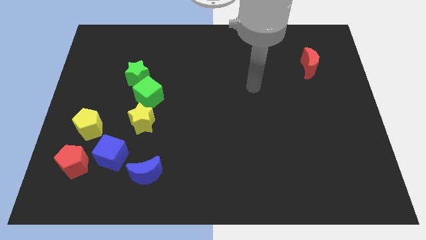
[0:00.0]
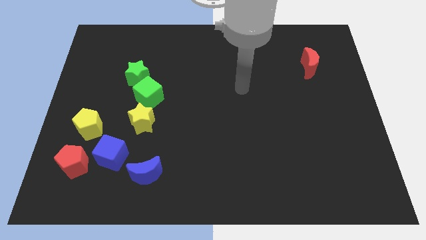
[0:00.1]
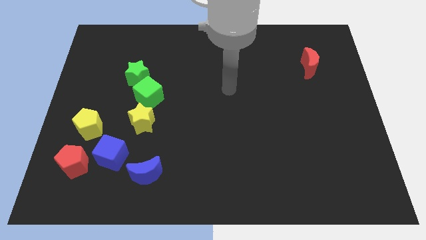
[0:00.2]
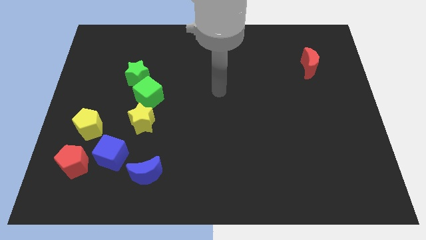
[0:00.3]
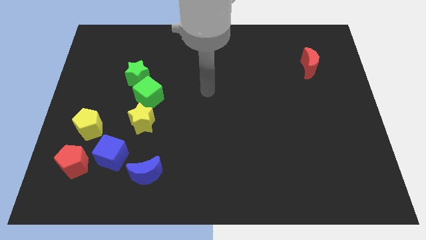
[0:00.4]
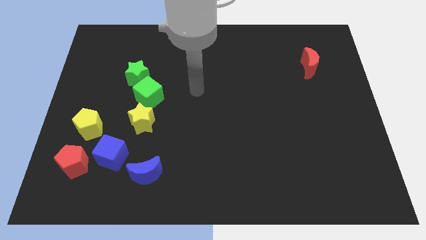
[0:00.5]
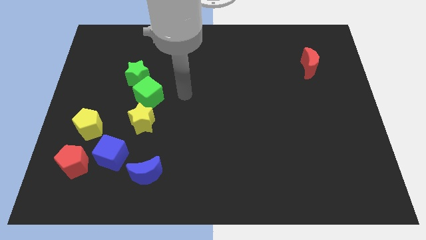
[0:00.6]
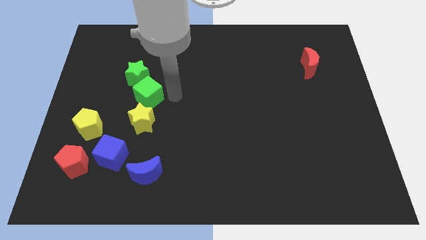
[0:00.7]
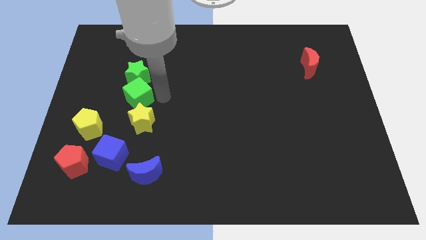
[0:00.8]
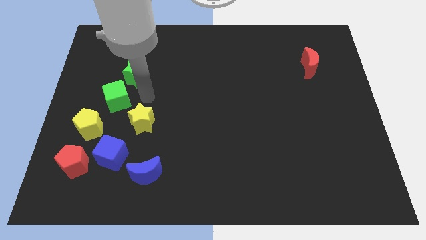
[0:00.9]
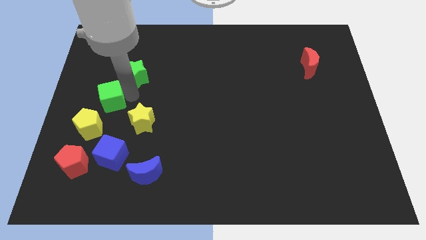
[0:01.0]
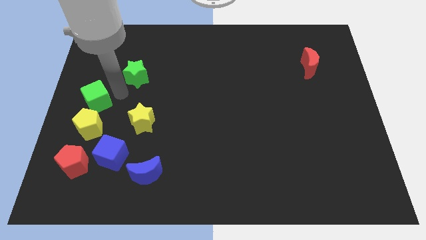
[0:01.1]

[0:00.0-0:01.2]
separate the green star from the green cube

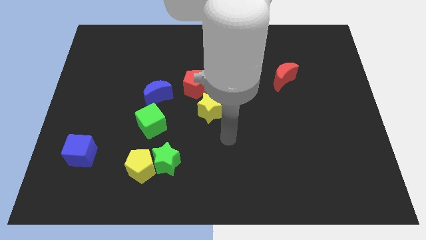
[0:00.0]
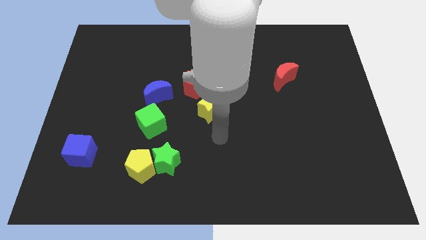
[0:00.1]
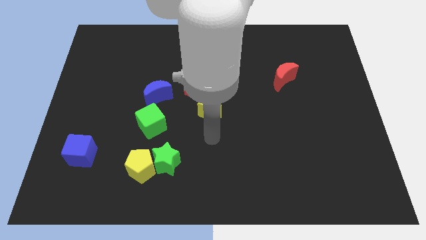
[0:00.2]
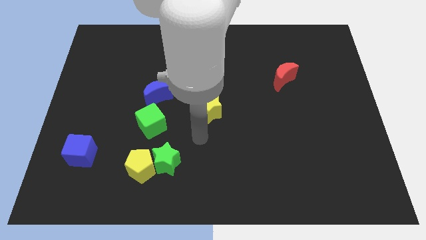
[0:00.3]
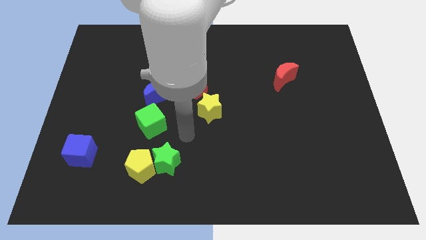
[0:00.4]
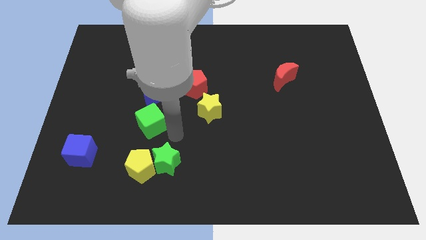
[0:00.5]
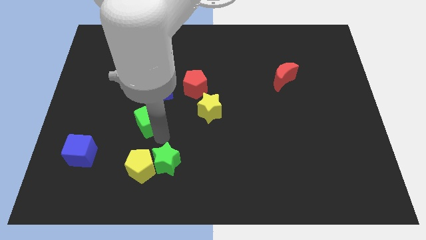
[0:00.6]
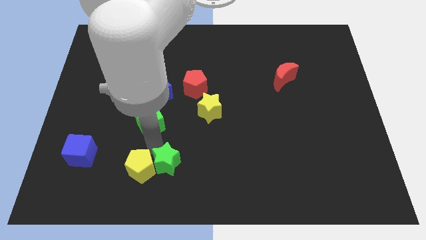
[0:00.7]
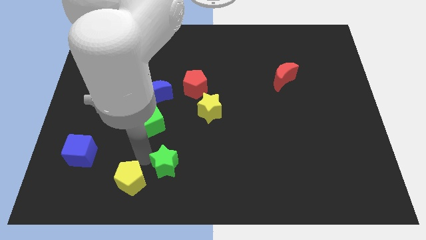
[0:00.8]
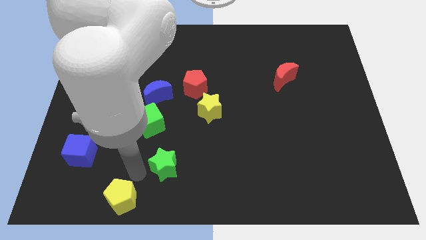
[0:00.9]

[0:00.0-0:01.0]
separate the green star from the yellow pentagon

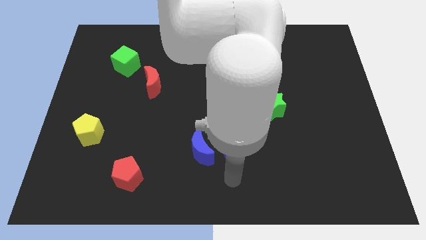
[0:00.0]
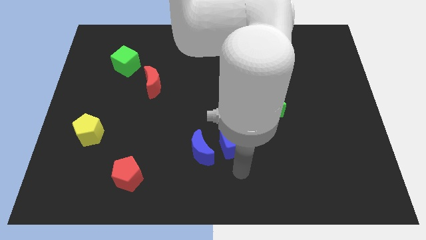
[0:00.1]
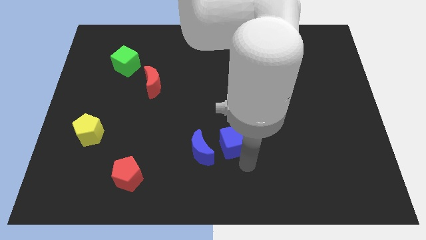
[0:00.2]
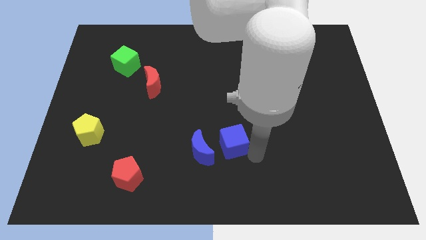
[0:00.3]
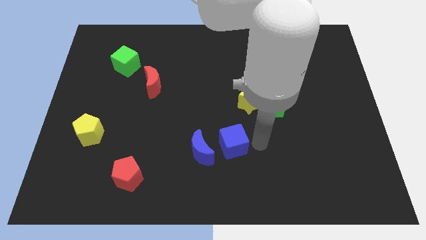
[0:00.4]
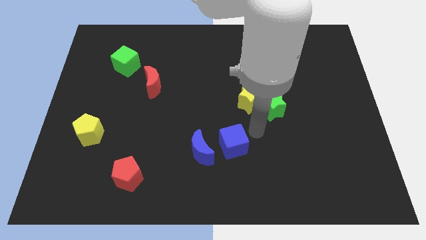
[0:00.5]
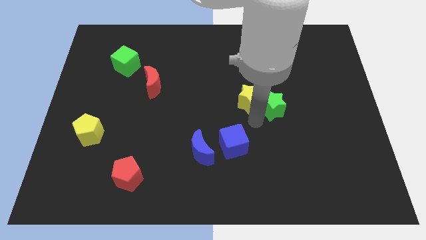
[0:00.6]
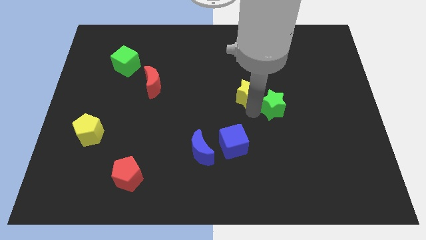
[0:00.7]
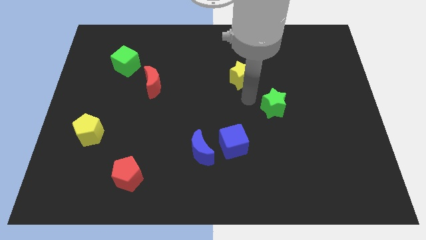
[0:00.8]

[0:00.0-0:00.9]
separate the green star from the yellow star

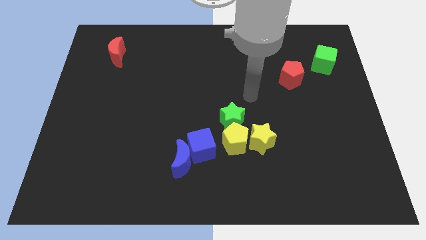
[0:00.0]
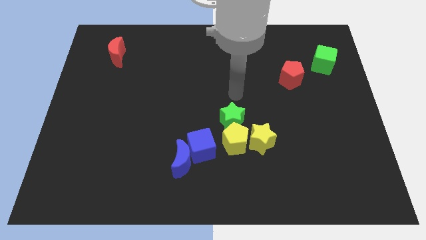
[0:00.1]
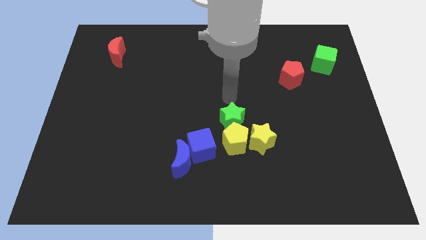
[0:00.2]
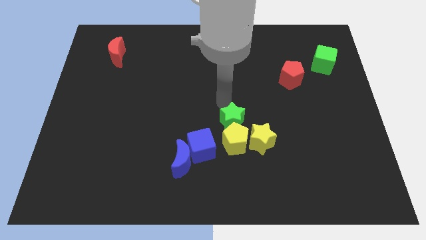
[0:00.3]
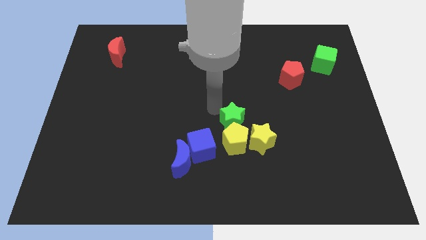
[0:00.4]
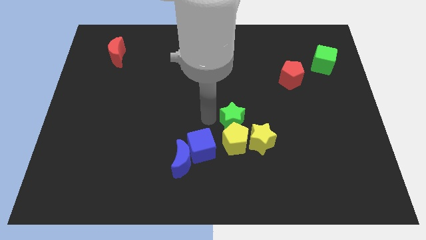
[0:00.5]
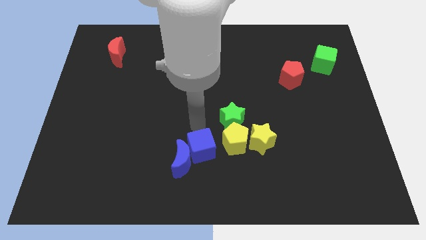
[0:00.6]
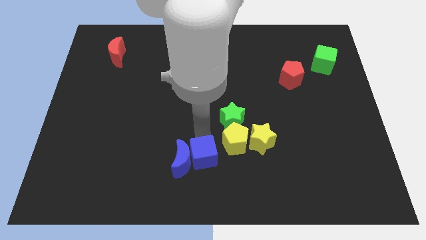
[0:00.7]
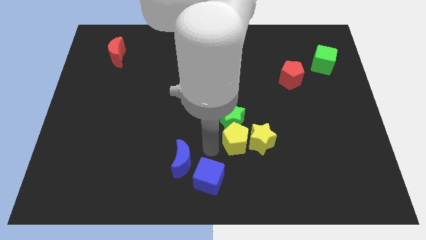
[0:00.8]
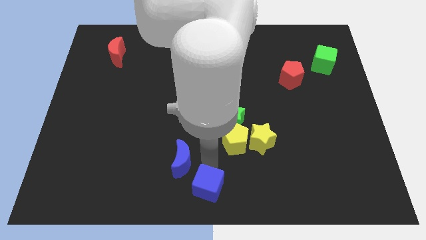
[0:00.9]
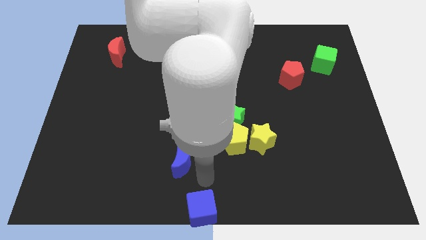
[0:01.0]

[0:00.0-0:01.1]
separate the blue moon from the blue cube

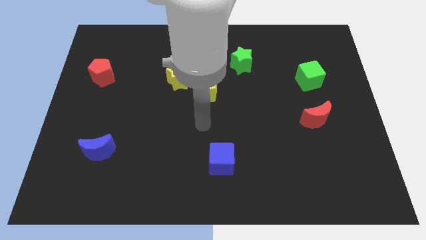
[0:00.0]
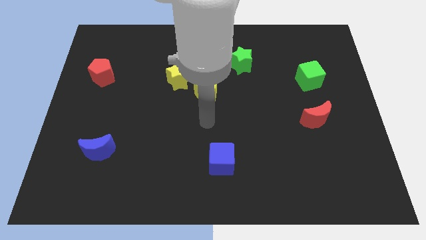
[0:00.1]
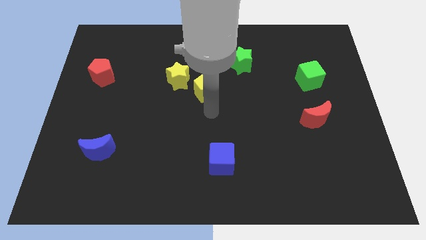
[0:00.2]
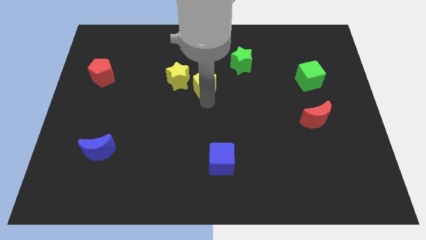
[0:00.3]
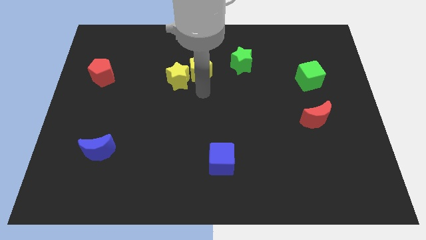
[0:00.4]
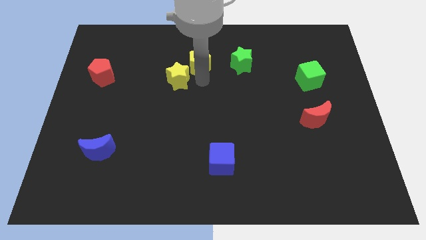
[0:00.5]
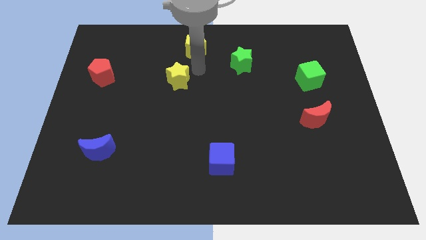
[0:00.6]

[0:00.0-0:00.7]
move the yellow star away from the yellow pentagon

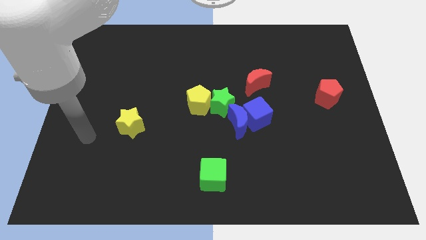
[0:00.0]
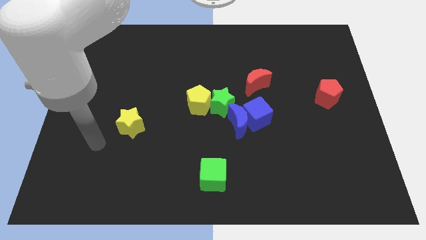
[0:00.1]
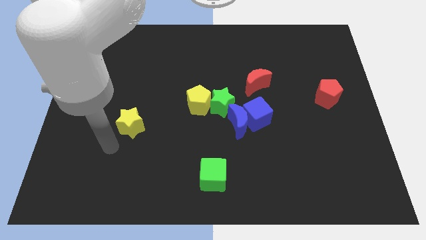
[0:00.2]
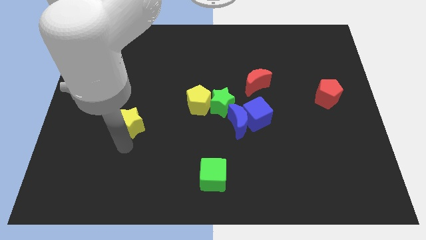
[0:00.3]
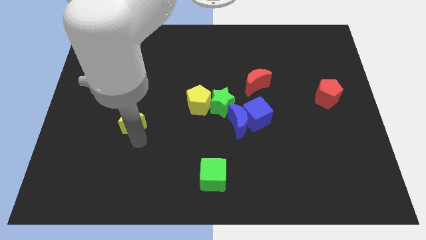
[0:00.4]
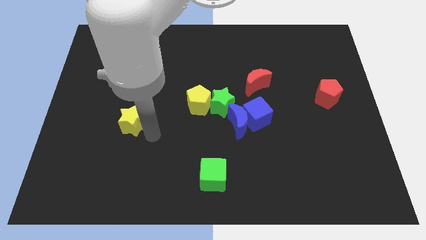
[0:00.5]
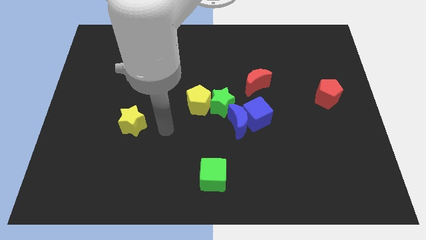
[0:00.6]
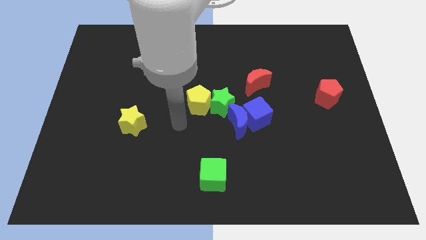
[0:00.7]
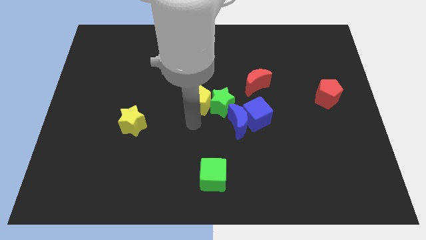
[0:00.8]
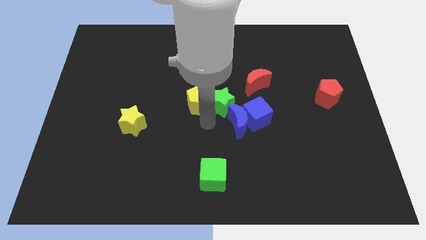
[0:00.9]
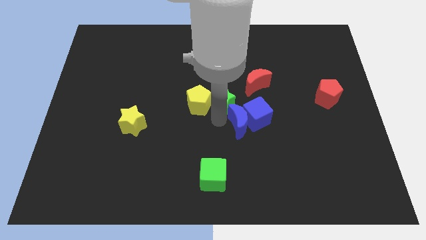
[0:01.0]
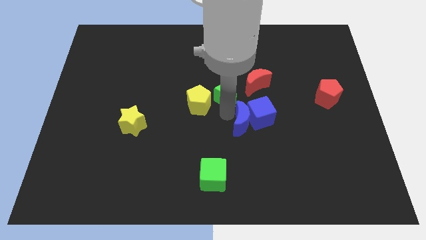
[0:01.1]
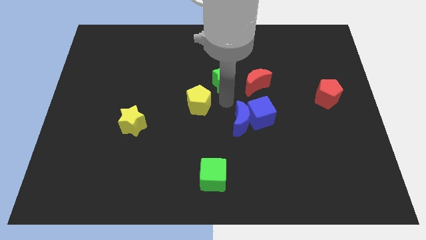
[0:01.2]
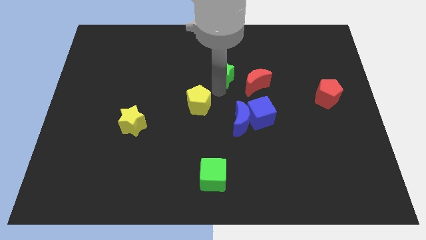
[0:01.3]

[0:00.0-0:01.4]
move the yellow pentagon away from the green star

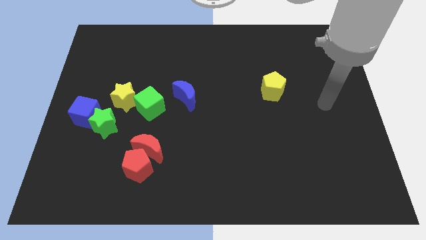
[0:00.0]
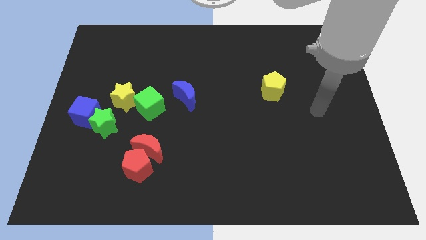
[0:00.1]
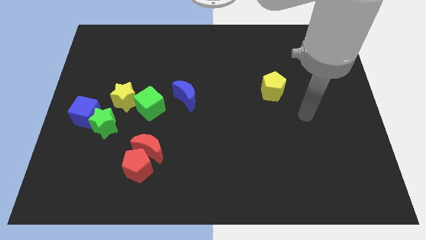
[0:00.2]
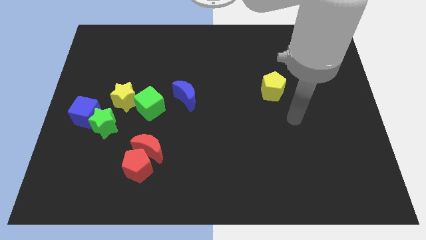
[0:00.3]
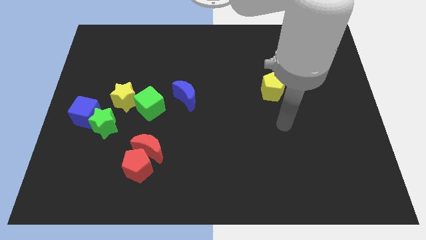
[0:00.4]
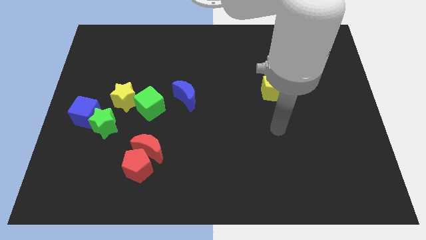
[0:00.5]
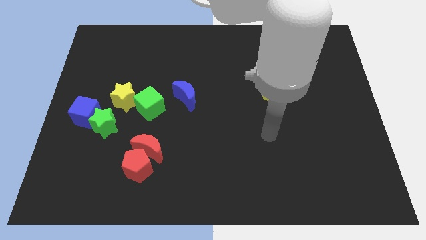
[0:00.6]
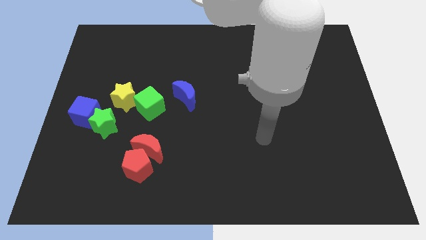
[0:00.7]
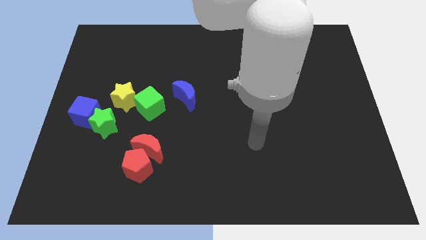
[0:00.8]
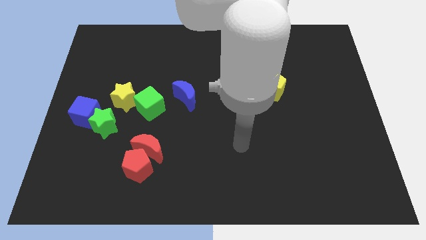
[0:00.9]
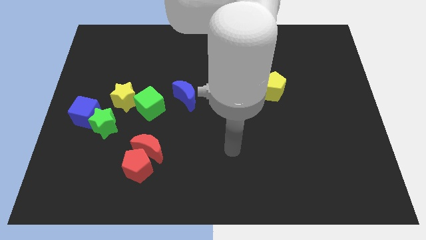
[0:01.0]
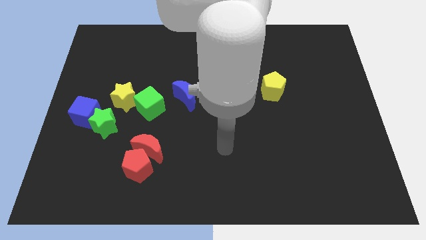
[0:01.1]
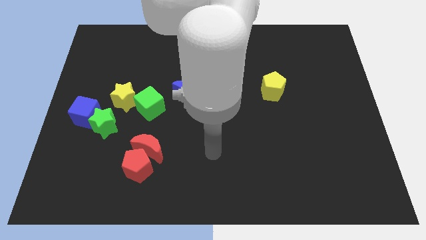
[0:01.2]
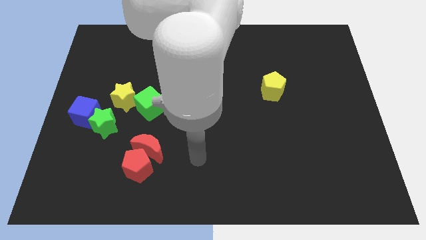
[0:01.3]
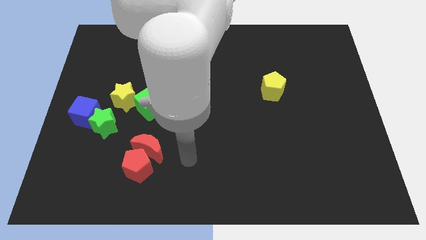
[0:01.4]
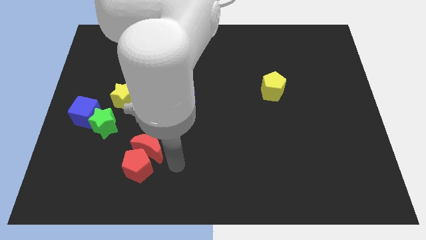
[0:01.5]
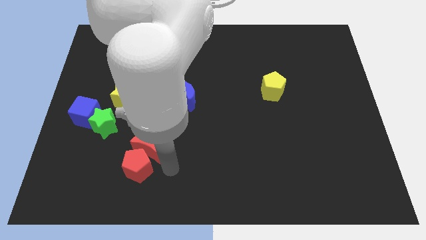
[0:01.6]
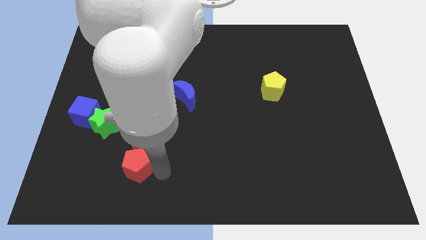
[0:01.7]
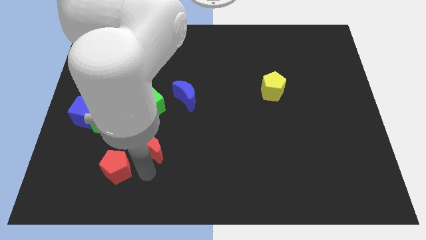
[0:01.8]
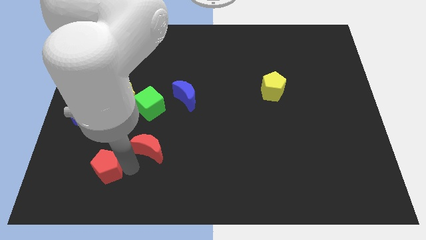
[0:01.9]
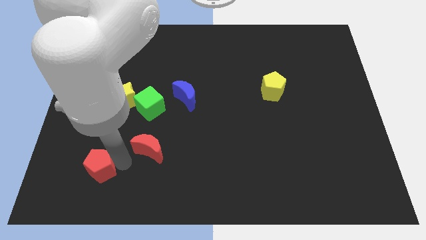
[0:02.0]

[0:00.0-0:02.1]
move the red moon away from the red pentagon

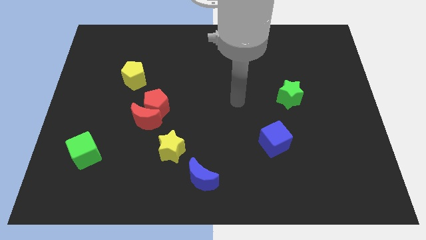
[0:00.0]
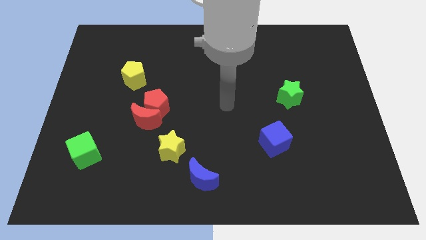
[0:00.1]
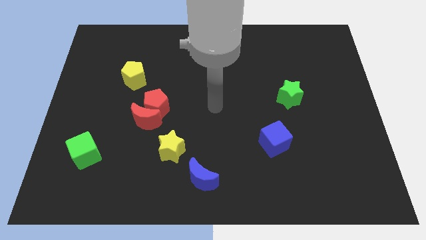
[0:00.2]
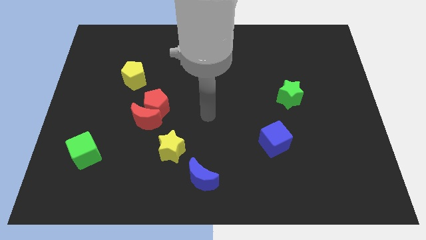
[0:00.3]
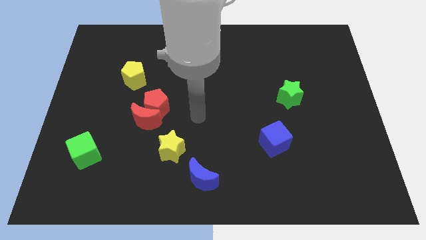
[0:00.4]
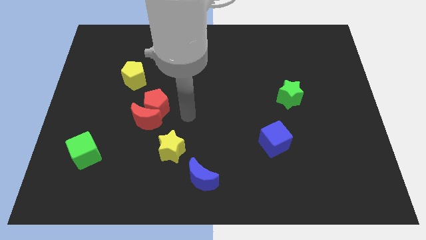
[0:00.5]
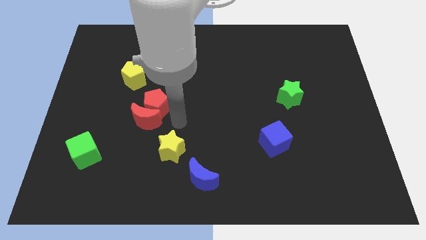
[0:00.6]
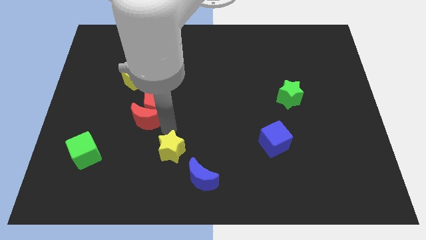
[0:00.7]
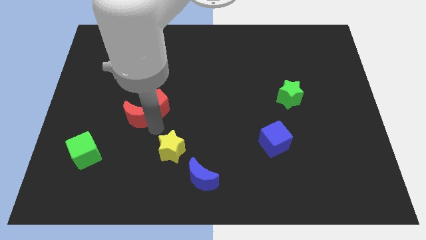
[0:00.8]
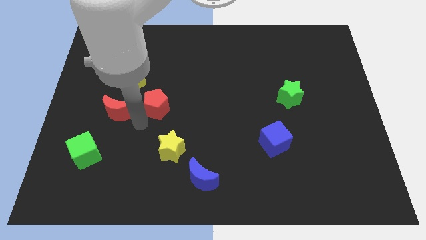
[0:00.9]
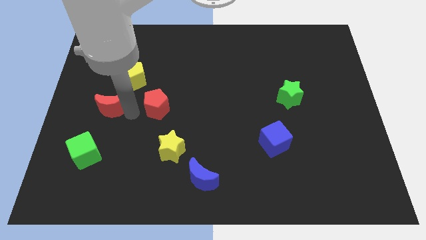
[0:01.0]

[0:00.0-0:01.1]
pull the red pentagon apart from the red moon
